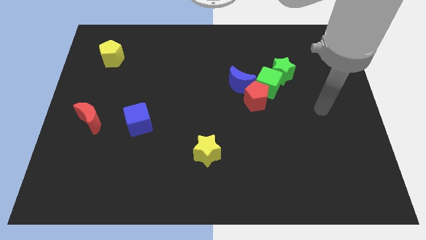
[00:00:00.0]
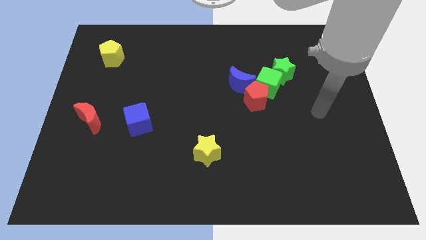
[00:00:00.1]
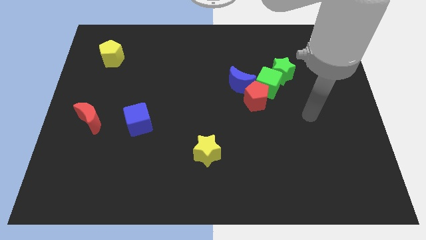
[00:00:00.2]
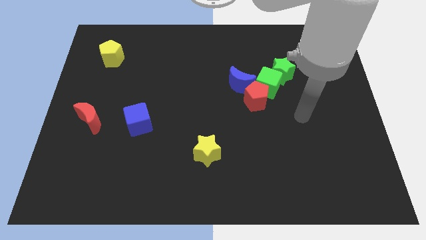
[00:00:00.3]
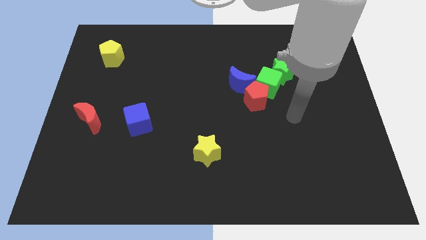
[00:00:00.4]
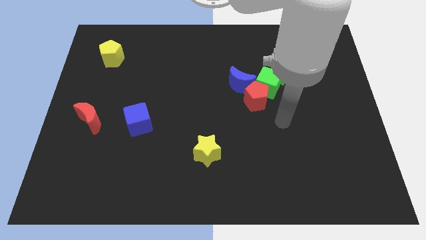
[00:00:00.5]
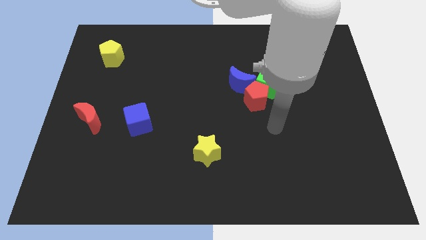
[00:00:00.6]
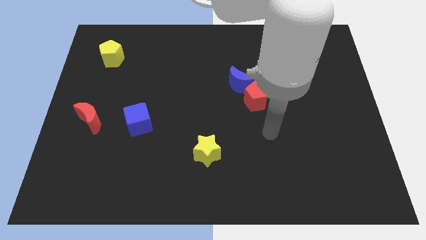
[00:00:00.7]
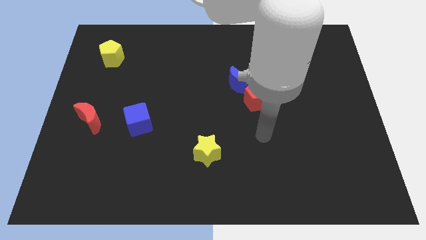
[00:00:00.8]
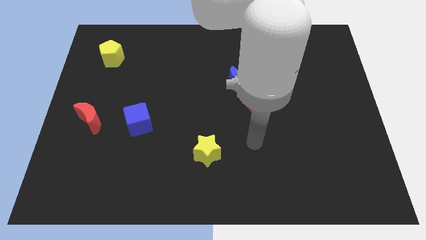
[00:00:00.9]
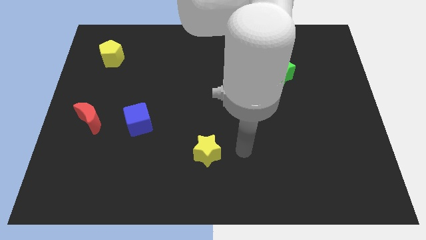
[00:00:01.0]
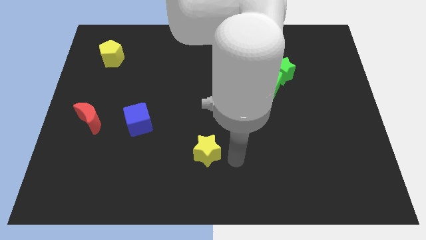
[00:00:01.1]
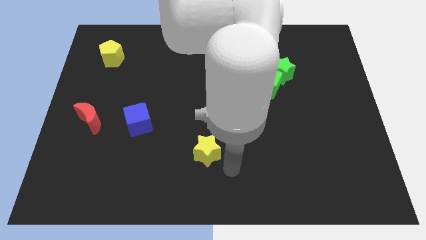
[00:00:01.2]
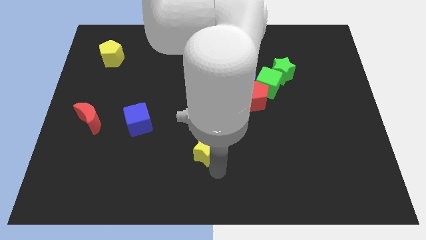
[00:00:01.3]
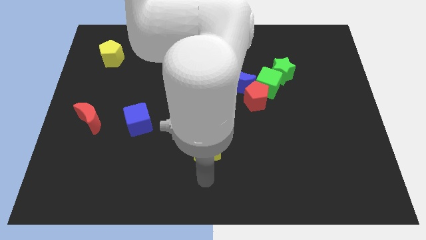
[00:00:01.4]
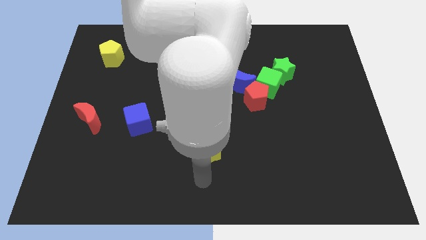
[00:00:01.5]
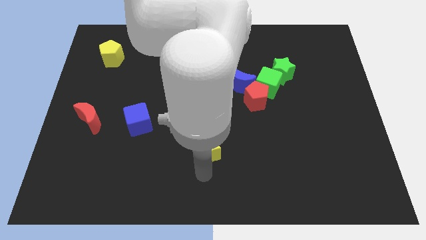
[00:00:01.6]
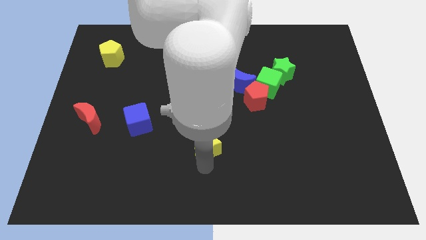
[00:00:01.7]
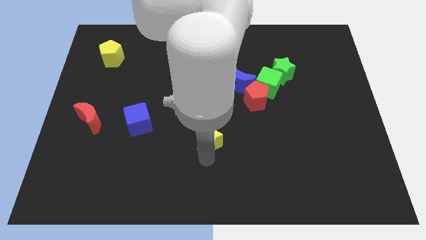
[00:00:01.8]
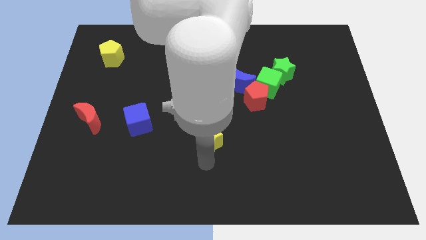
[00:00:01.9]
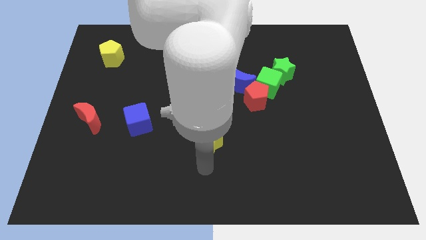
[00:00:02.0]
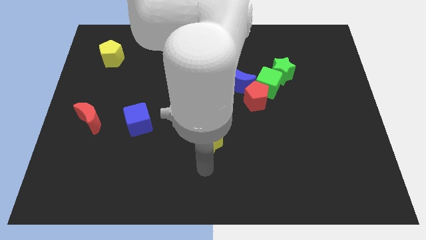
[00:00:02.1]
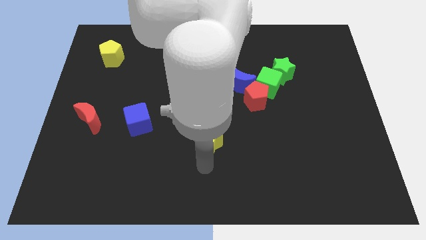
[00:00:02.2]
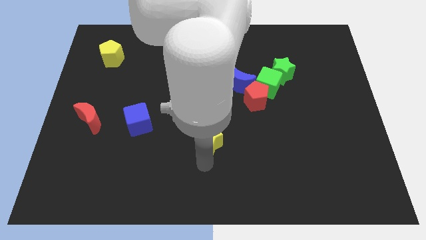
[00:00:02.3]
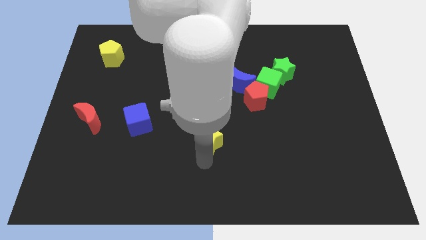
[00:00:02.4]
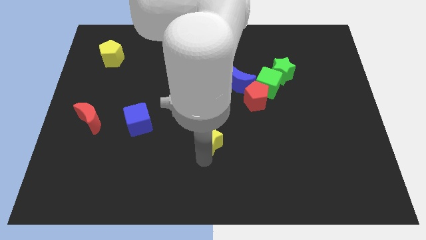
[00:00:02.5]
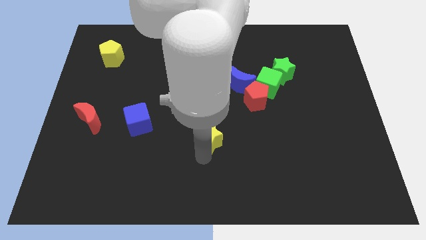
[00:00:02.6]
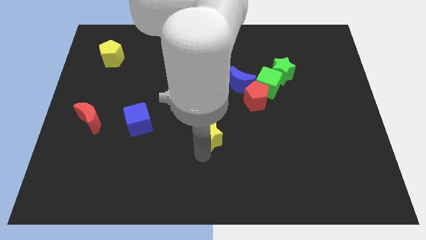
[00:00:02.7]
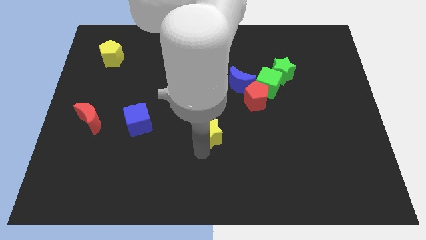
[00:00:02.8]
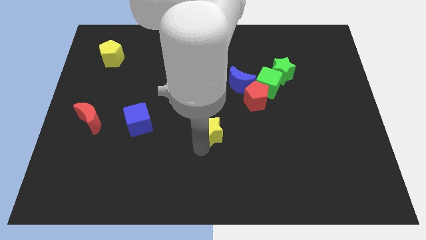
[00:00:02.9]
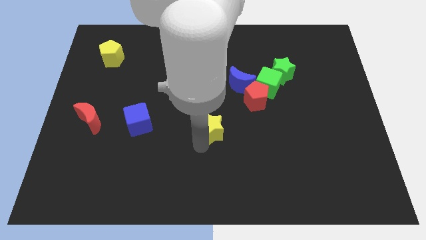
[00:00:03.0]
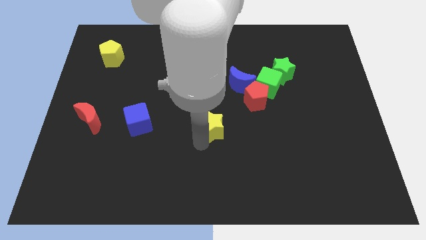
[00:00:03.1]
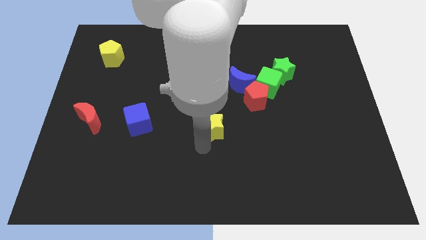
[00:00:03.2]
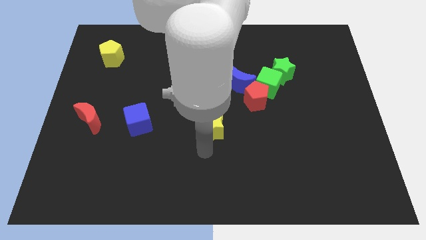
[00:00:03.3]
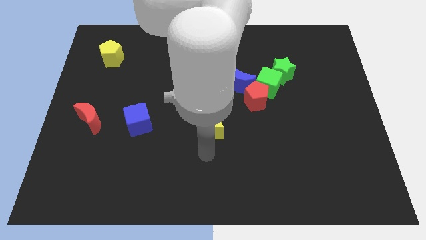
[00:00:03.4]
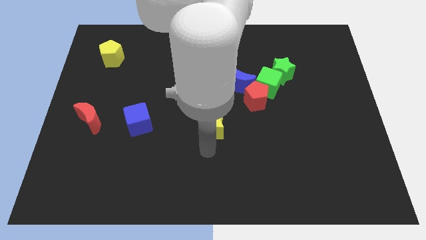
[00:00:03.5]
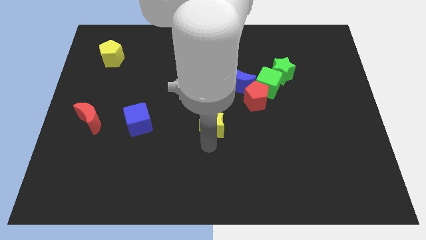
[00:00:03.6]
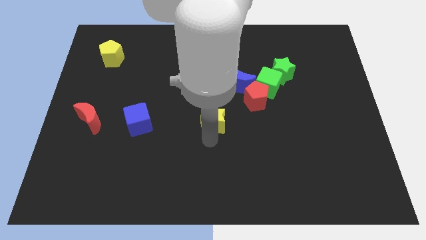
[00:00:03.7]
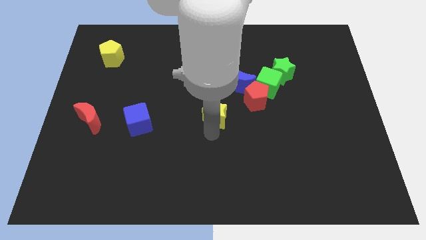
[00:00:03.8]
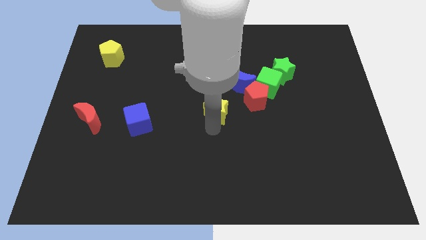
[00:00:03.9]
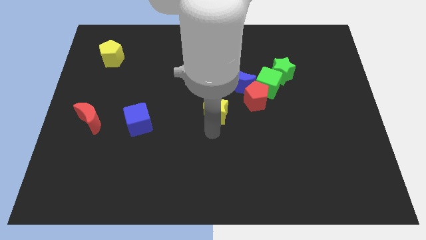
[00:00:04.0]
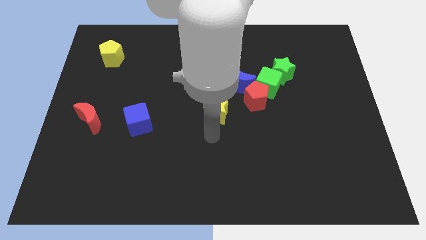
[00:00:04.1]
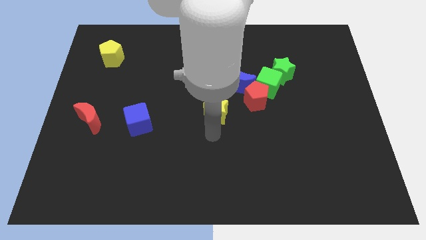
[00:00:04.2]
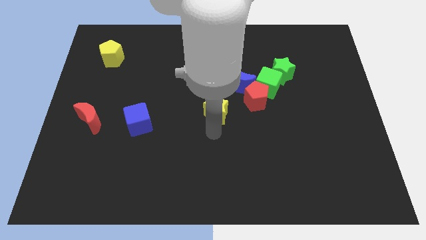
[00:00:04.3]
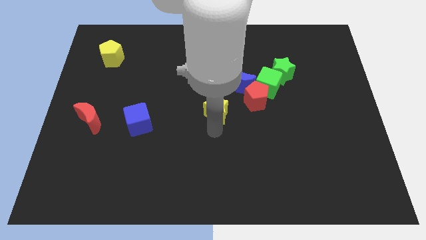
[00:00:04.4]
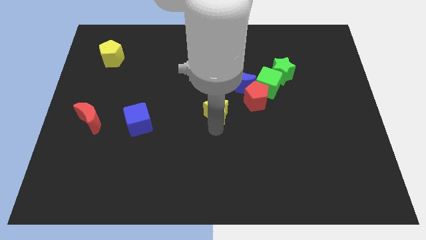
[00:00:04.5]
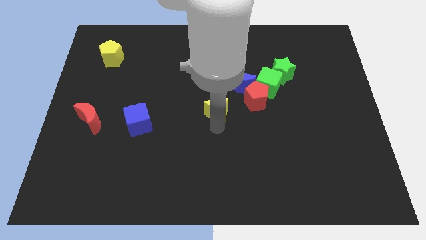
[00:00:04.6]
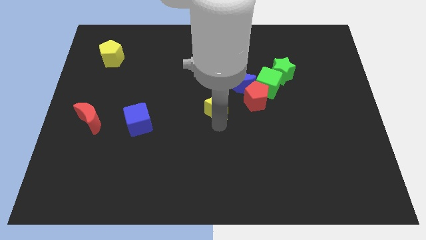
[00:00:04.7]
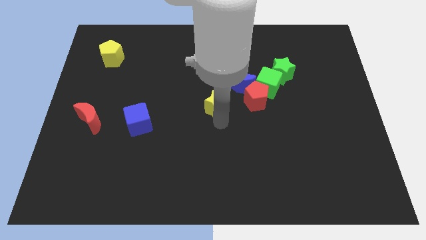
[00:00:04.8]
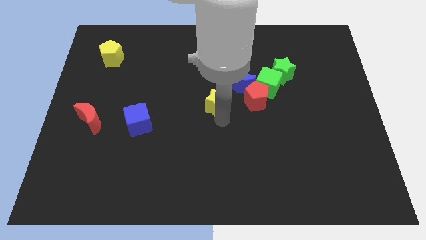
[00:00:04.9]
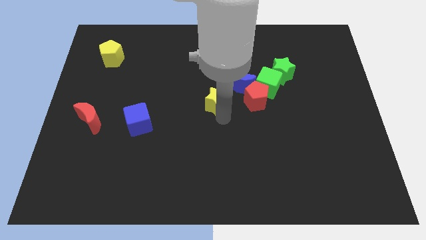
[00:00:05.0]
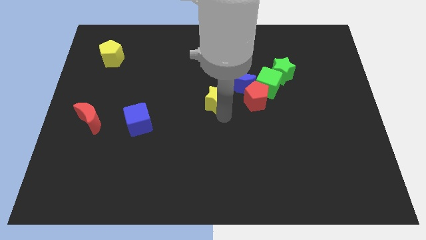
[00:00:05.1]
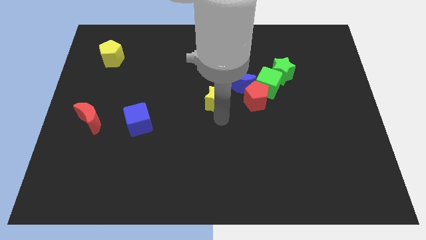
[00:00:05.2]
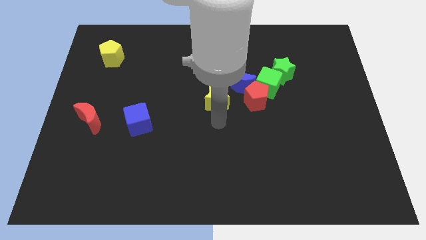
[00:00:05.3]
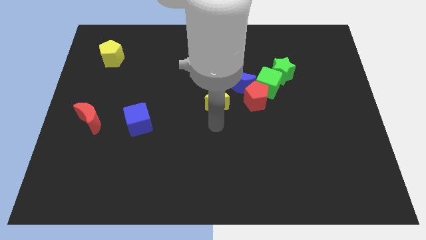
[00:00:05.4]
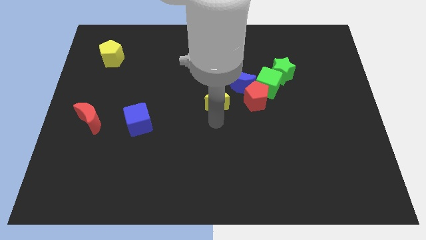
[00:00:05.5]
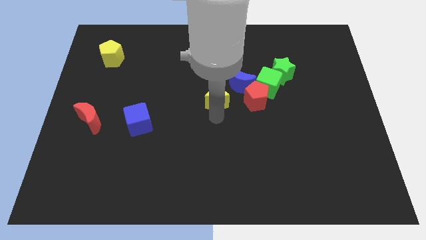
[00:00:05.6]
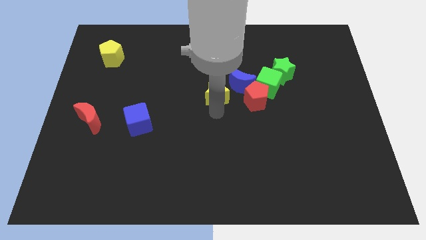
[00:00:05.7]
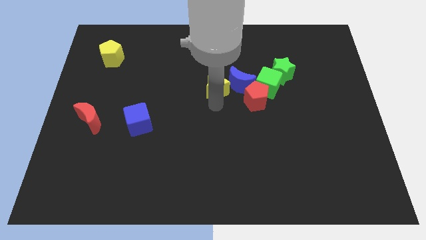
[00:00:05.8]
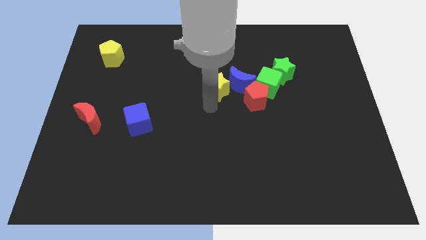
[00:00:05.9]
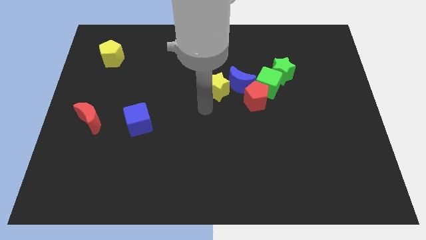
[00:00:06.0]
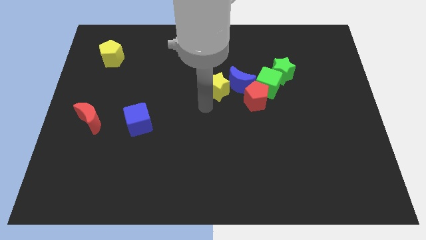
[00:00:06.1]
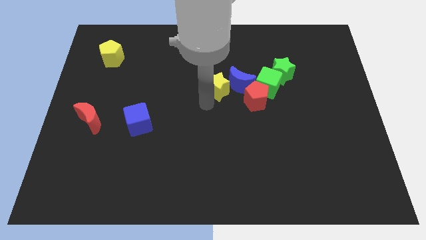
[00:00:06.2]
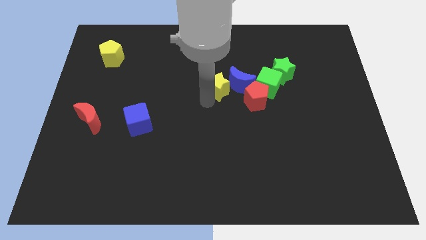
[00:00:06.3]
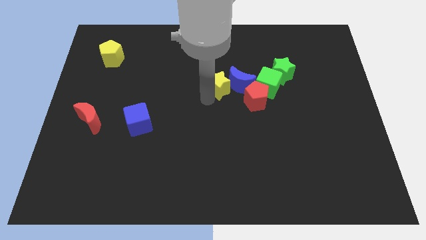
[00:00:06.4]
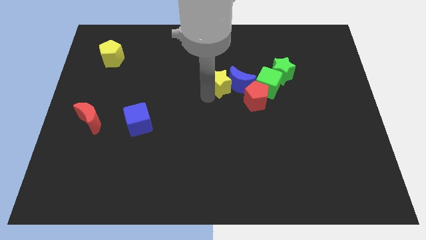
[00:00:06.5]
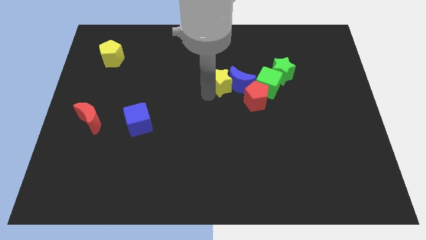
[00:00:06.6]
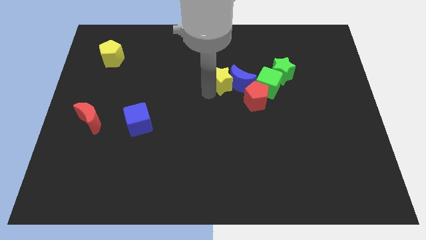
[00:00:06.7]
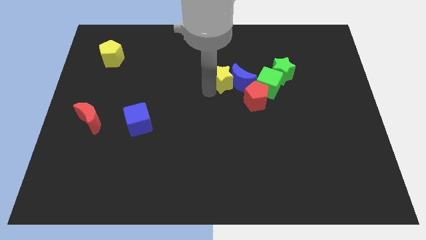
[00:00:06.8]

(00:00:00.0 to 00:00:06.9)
slide the yellow star to the left of the green star
